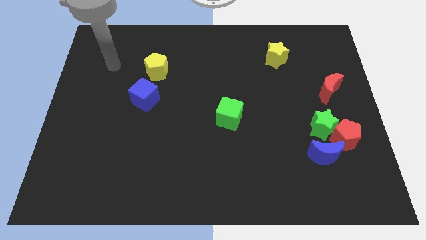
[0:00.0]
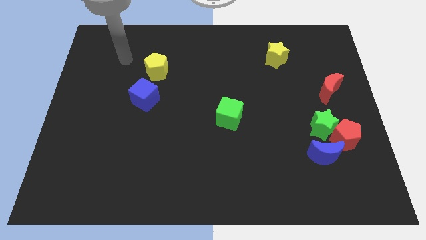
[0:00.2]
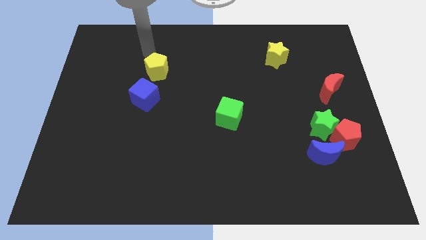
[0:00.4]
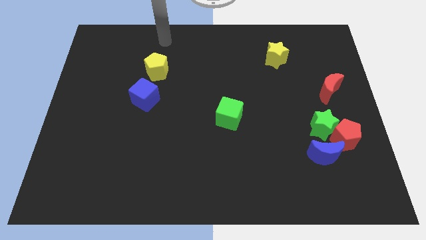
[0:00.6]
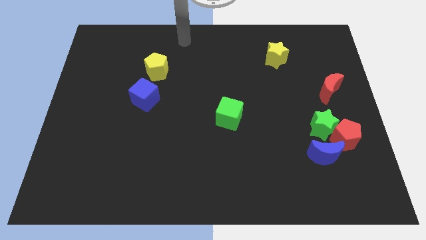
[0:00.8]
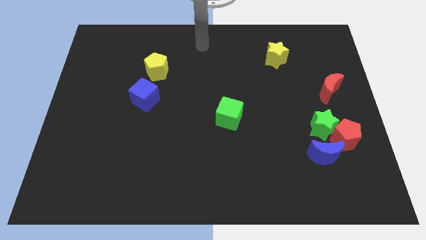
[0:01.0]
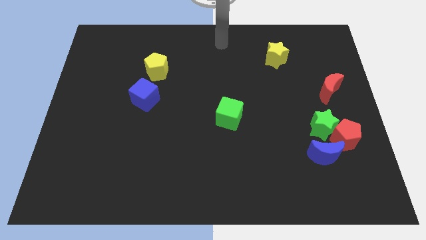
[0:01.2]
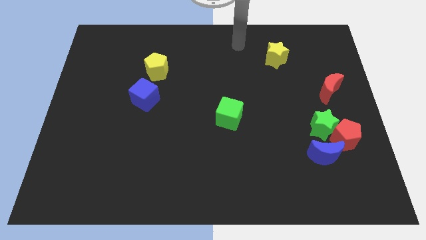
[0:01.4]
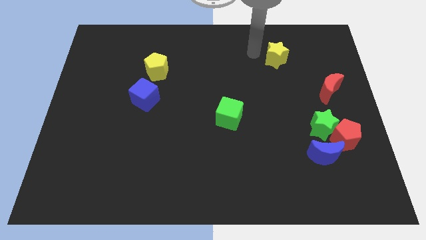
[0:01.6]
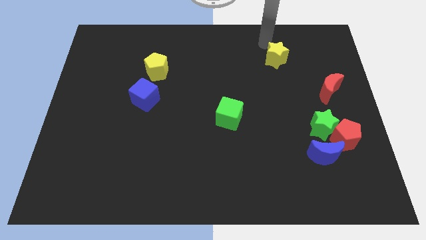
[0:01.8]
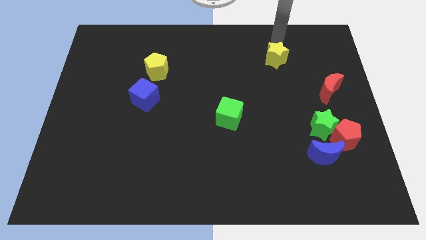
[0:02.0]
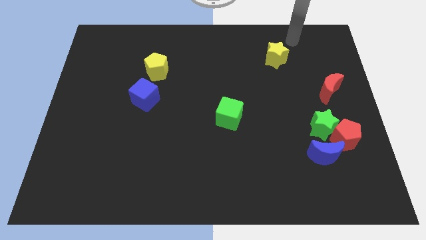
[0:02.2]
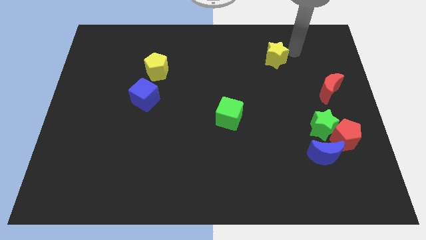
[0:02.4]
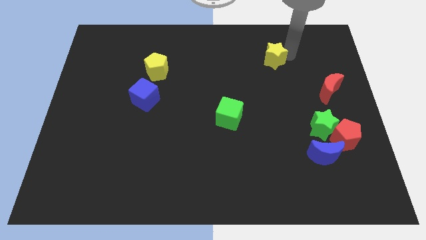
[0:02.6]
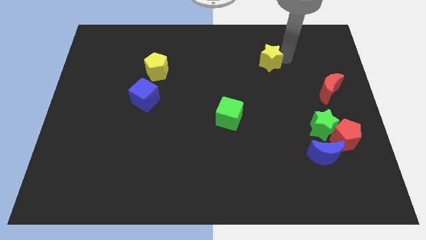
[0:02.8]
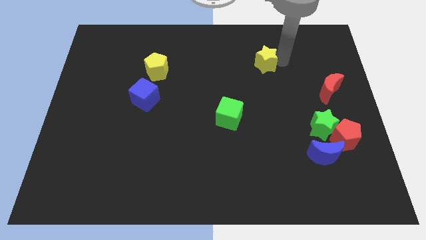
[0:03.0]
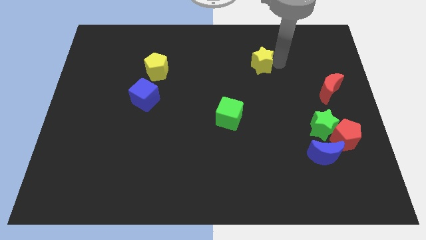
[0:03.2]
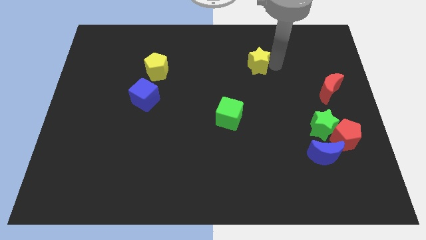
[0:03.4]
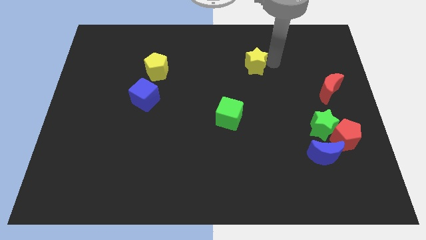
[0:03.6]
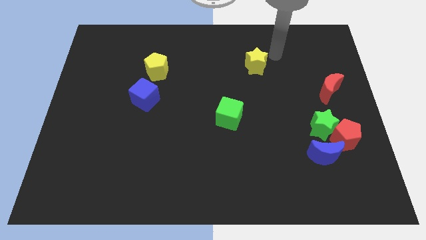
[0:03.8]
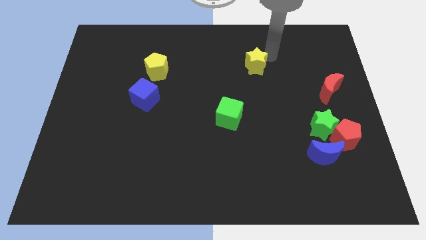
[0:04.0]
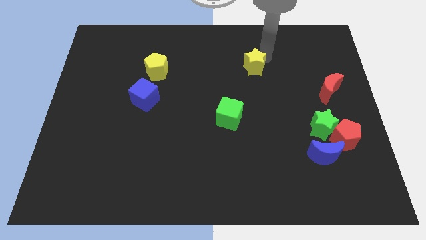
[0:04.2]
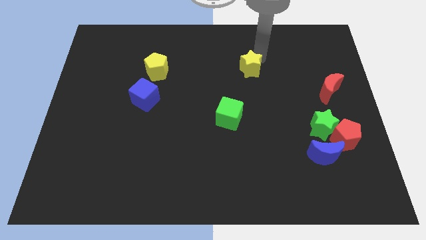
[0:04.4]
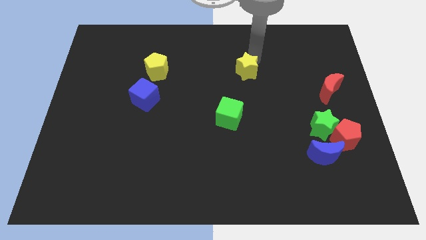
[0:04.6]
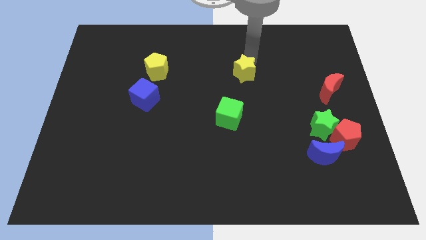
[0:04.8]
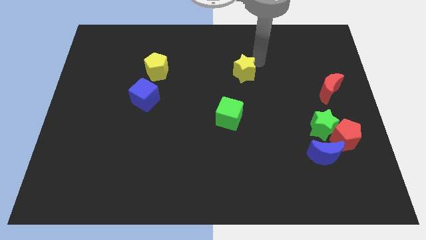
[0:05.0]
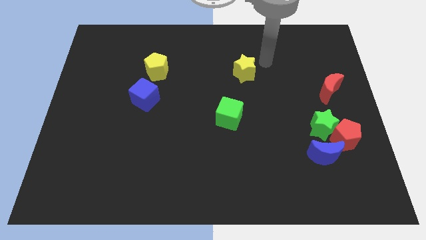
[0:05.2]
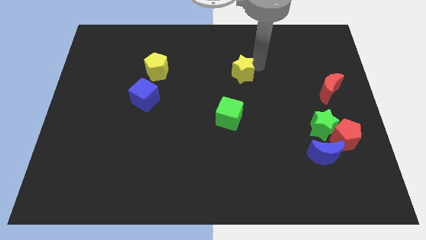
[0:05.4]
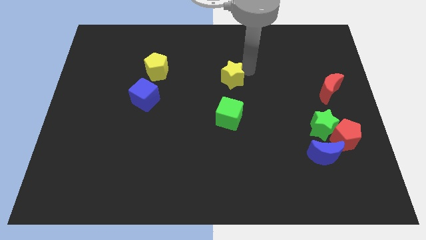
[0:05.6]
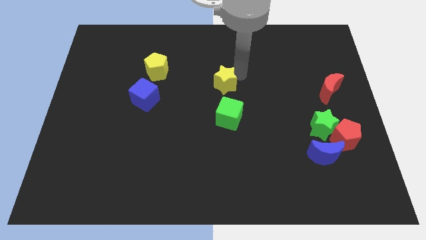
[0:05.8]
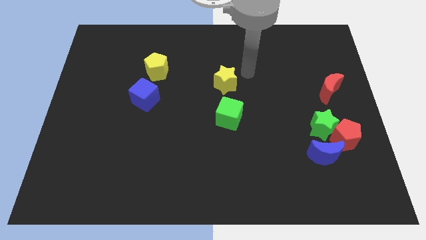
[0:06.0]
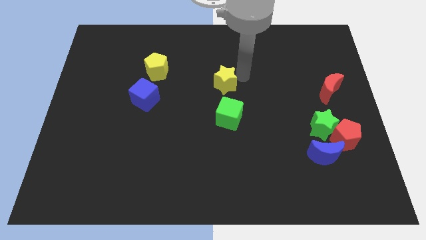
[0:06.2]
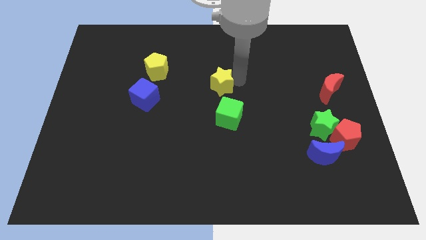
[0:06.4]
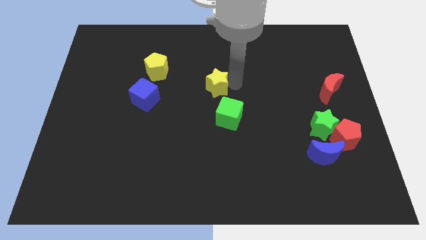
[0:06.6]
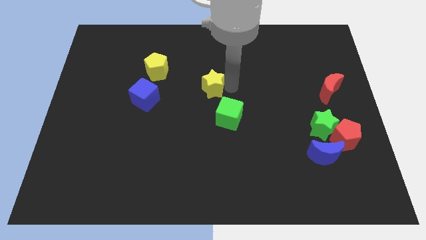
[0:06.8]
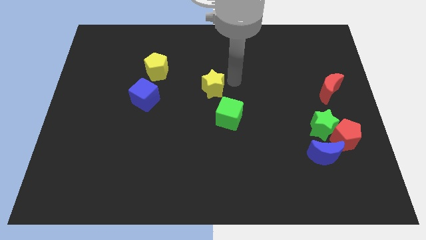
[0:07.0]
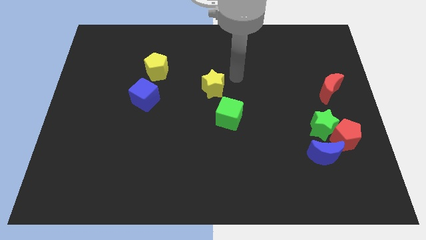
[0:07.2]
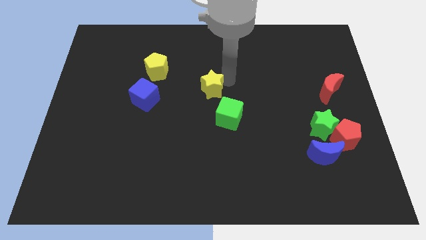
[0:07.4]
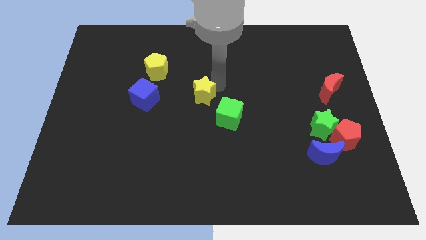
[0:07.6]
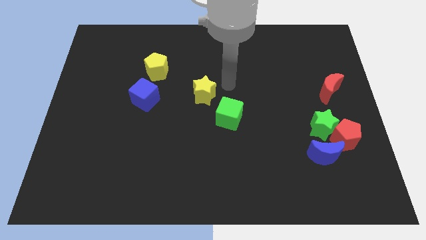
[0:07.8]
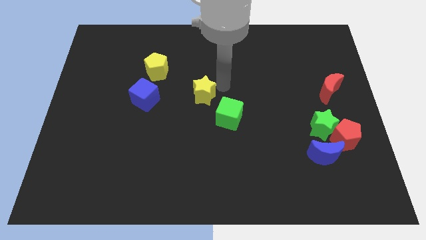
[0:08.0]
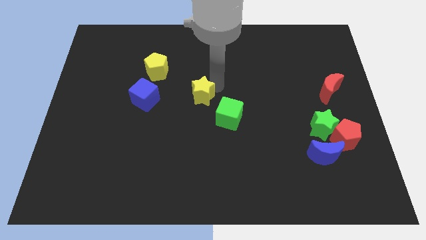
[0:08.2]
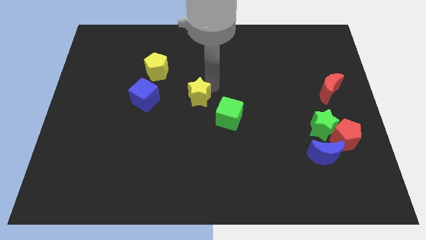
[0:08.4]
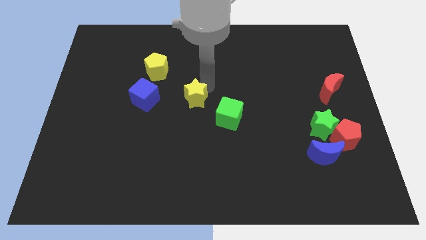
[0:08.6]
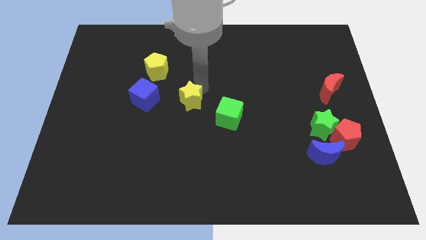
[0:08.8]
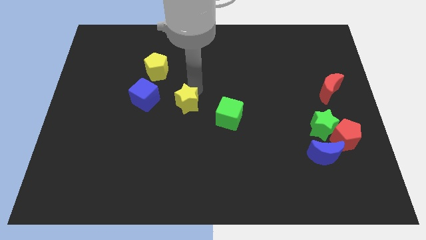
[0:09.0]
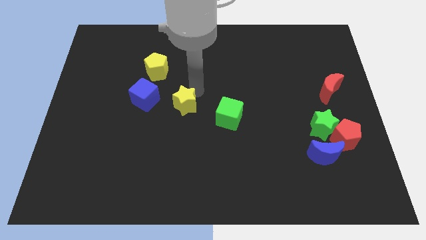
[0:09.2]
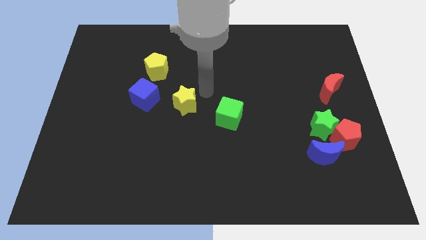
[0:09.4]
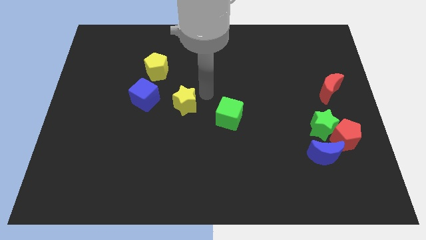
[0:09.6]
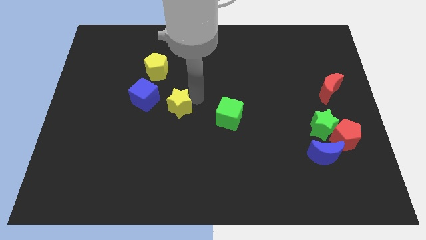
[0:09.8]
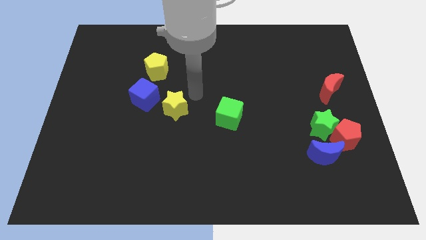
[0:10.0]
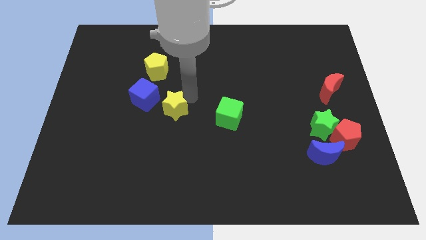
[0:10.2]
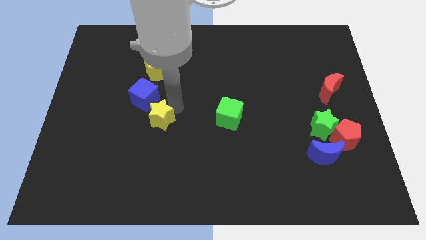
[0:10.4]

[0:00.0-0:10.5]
push the yellow star to the bottom of the blue cube

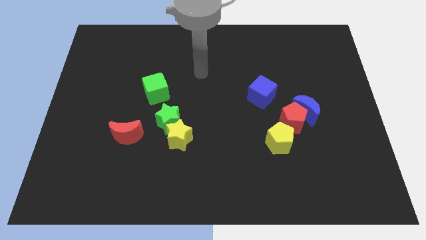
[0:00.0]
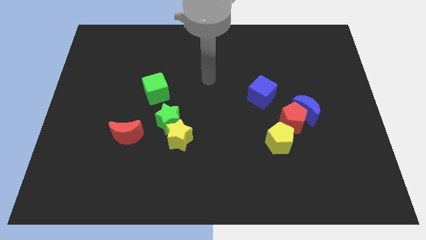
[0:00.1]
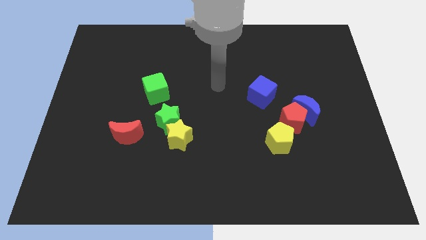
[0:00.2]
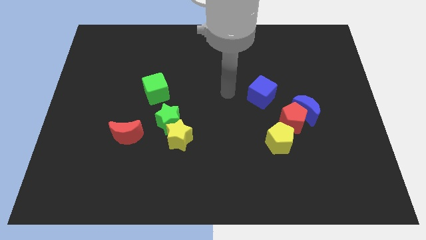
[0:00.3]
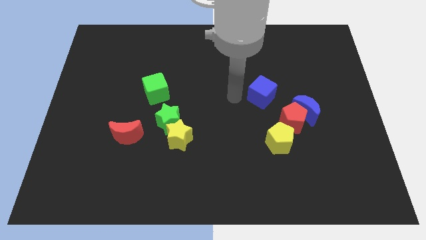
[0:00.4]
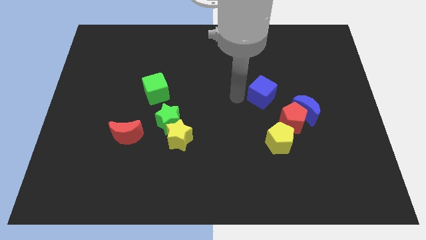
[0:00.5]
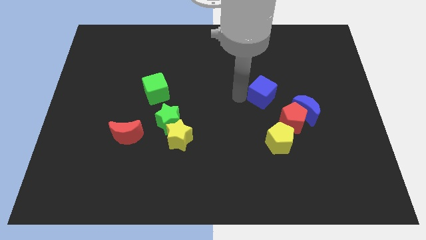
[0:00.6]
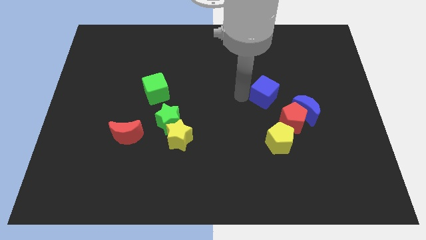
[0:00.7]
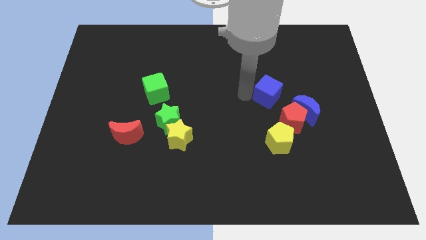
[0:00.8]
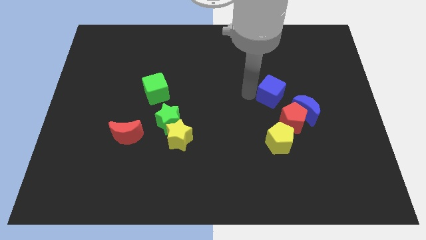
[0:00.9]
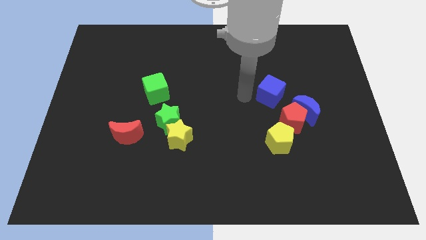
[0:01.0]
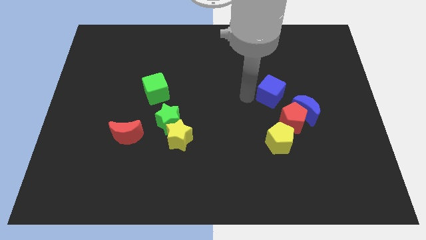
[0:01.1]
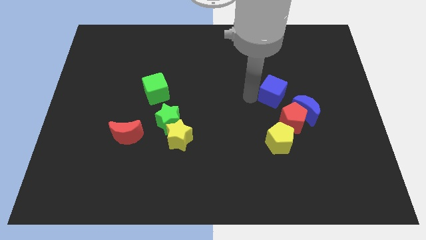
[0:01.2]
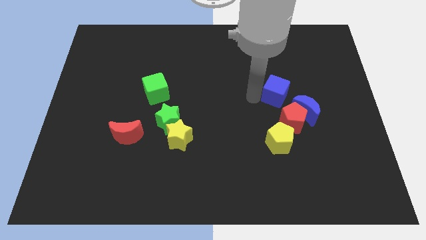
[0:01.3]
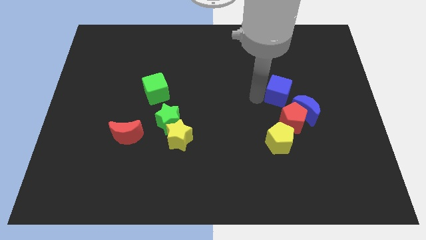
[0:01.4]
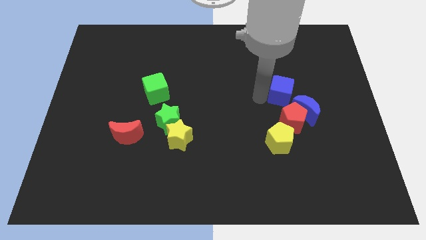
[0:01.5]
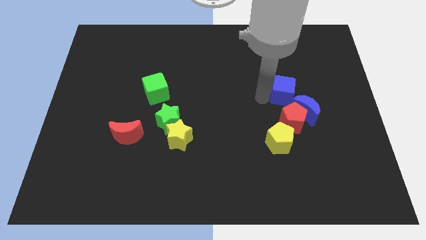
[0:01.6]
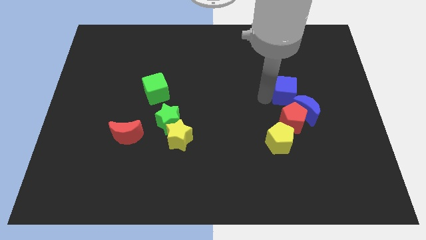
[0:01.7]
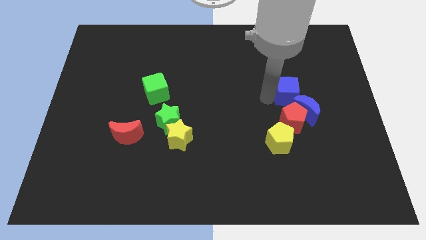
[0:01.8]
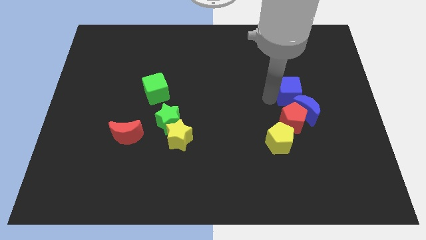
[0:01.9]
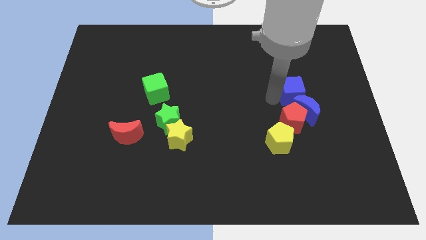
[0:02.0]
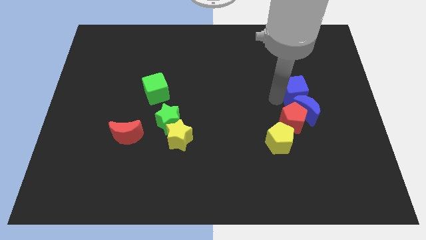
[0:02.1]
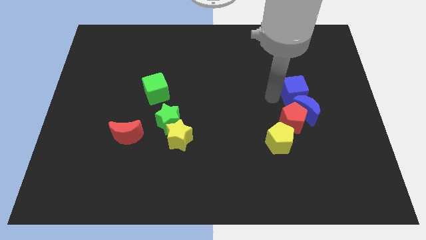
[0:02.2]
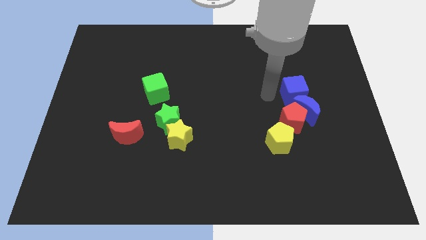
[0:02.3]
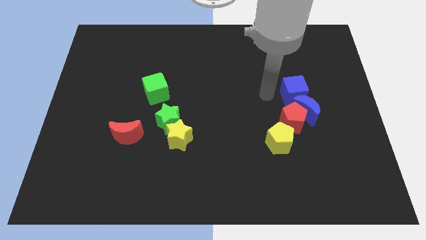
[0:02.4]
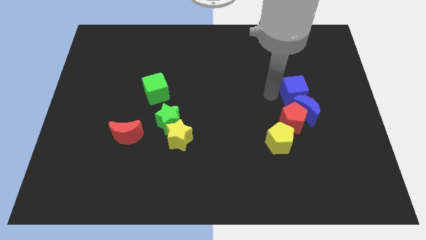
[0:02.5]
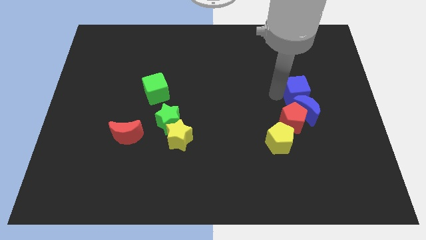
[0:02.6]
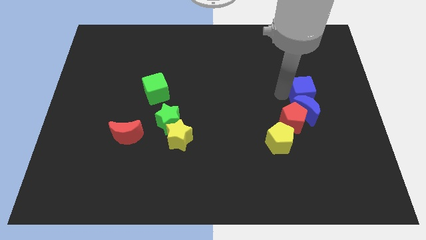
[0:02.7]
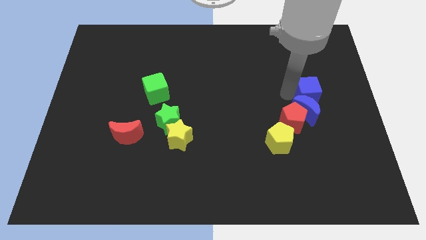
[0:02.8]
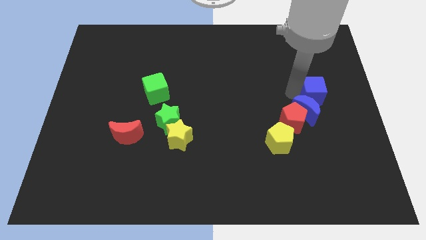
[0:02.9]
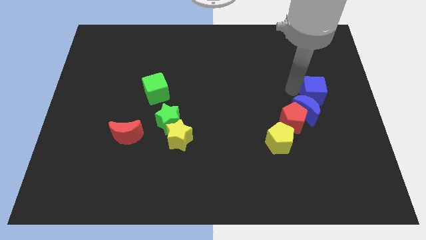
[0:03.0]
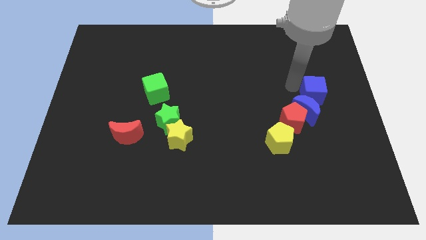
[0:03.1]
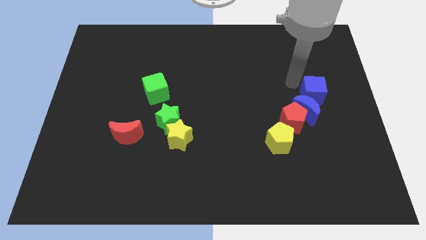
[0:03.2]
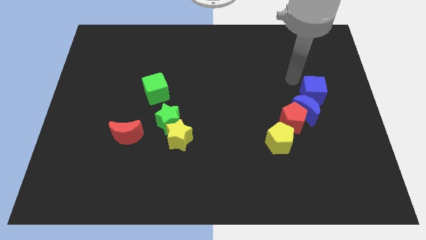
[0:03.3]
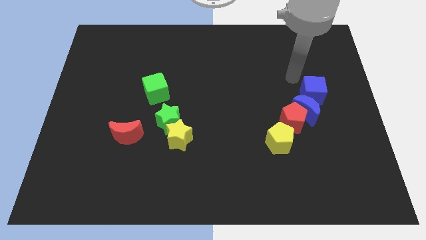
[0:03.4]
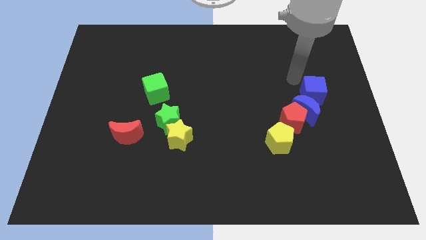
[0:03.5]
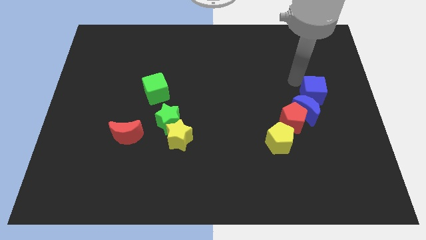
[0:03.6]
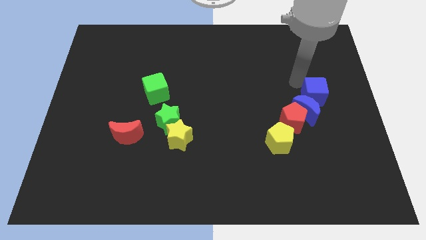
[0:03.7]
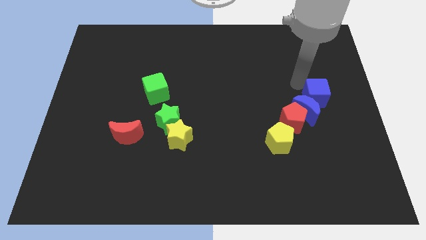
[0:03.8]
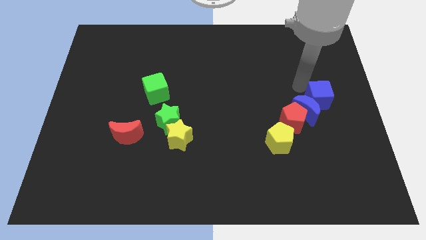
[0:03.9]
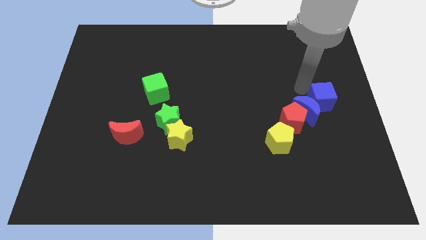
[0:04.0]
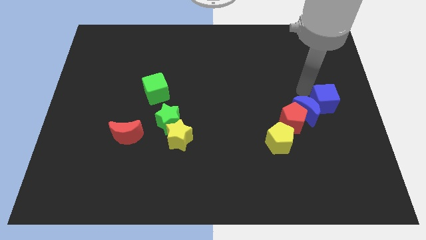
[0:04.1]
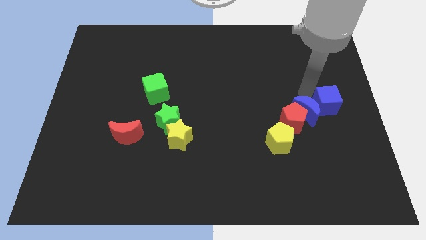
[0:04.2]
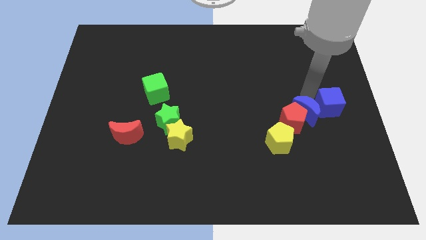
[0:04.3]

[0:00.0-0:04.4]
put the blue cube right of the red pentagon
